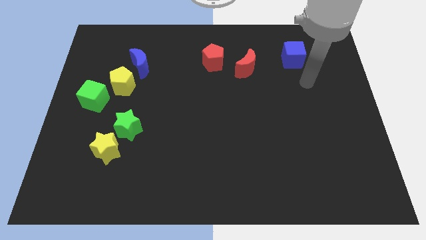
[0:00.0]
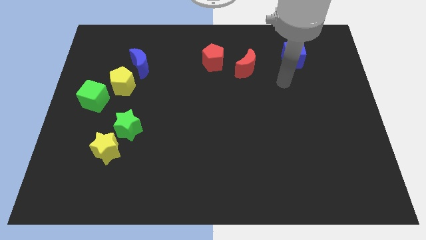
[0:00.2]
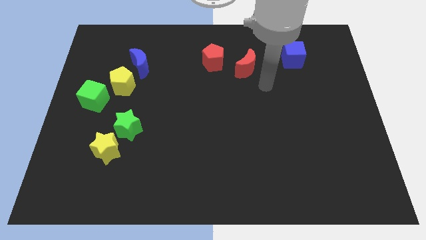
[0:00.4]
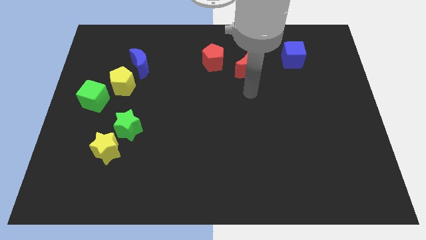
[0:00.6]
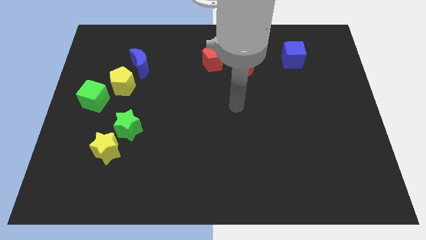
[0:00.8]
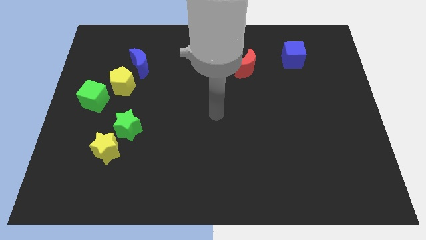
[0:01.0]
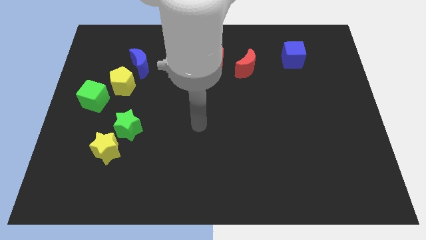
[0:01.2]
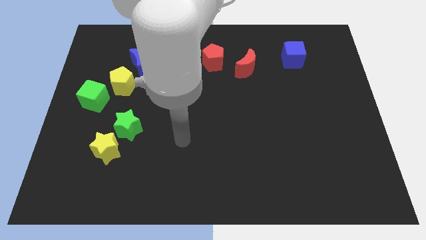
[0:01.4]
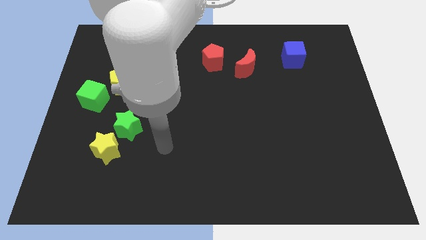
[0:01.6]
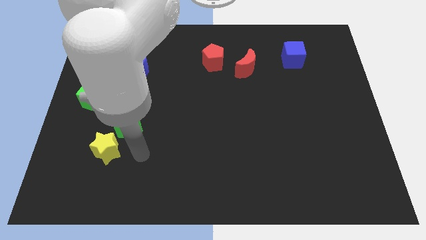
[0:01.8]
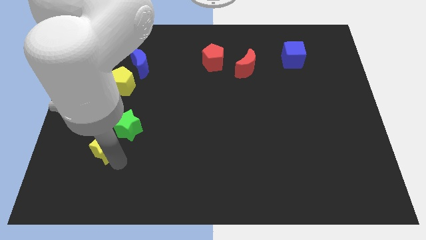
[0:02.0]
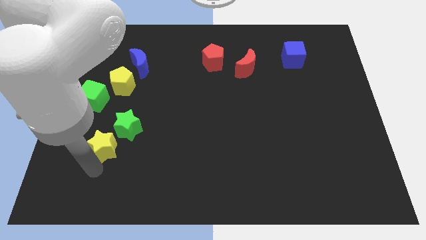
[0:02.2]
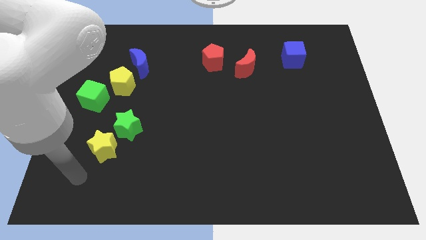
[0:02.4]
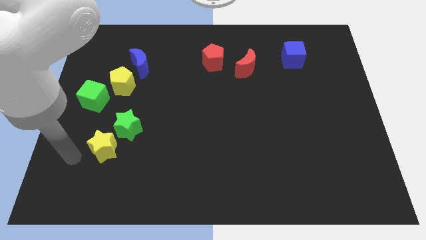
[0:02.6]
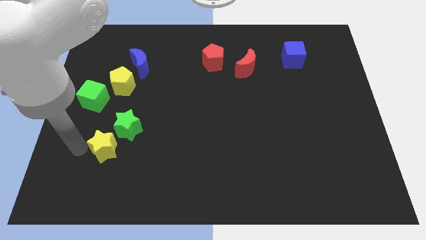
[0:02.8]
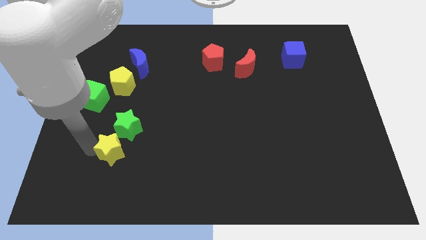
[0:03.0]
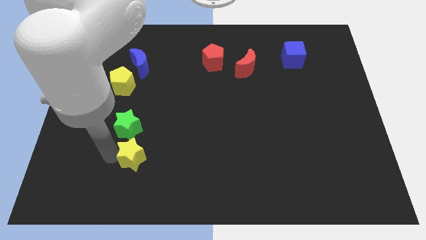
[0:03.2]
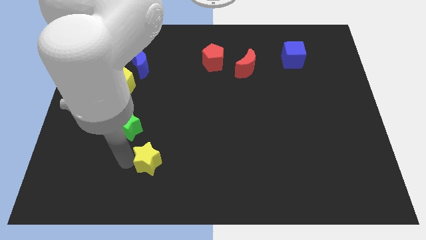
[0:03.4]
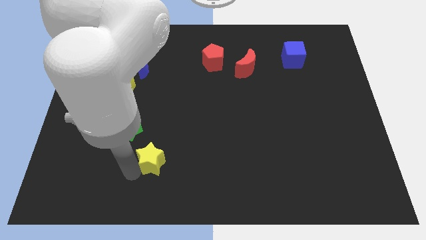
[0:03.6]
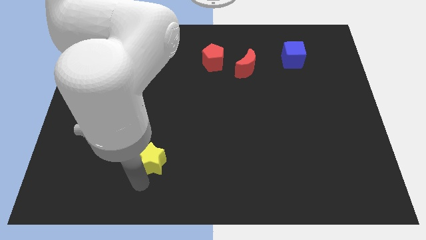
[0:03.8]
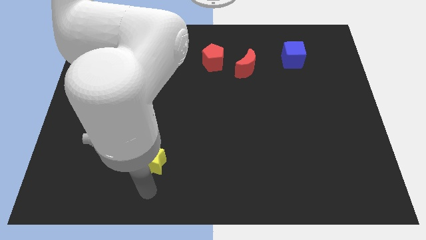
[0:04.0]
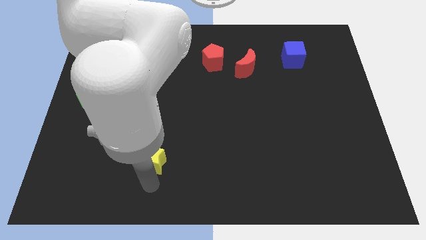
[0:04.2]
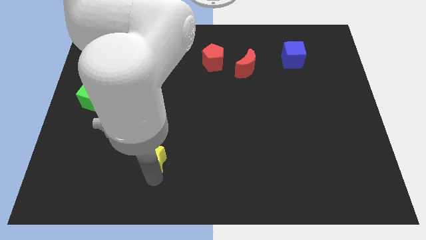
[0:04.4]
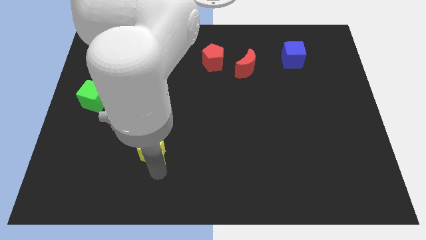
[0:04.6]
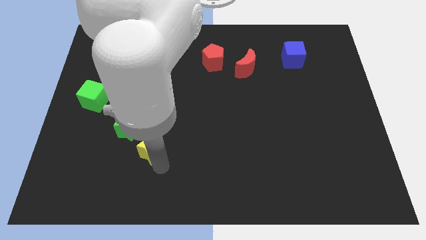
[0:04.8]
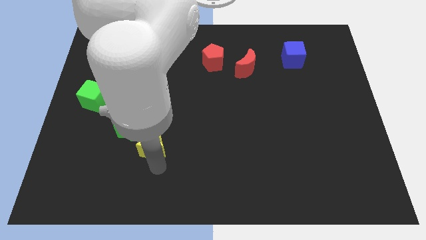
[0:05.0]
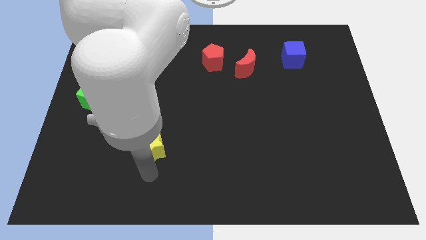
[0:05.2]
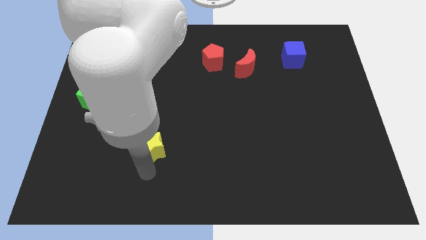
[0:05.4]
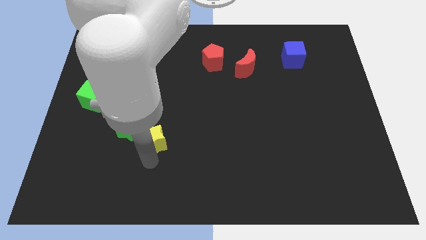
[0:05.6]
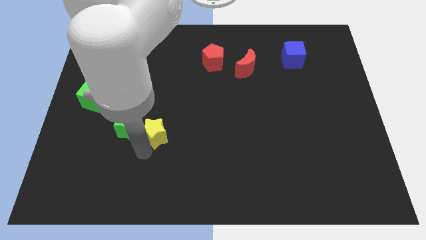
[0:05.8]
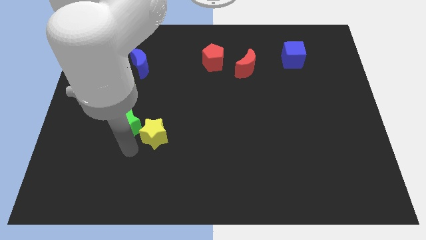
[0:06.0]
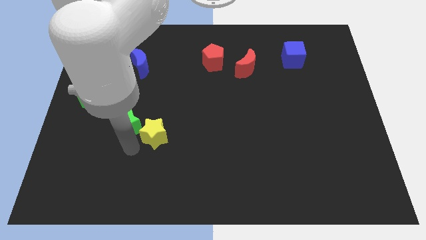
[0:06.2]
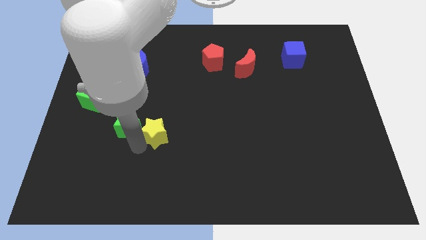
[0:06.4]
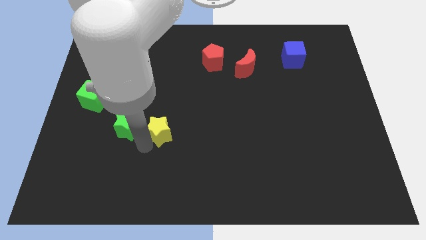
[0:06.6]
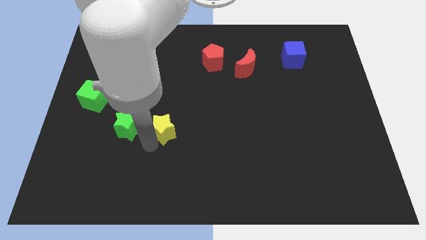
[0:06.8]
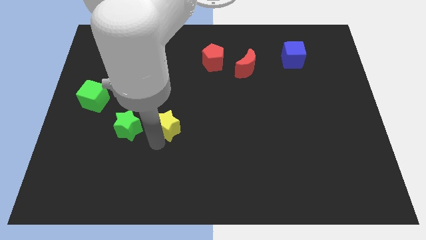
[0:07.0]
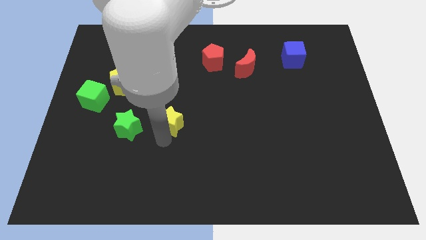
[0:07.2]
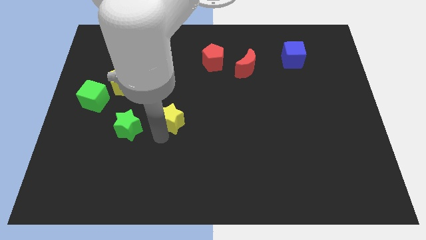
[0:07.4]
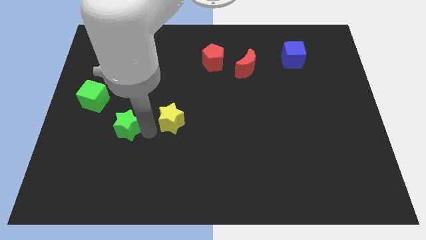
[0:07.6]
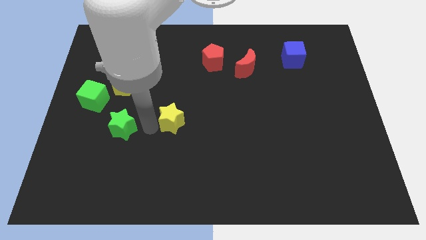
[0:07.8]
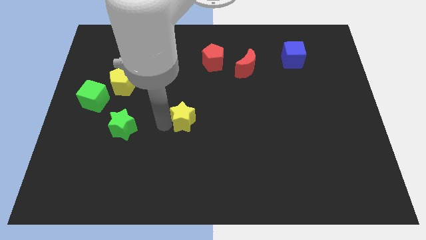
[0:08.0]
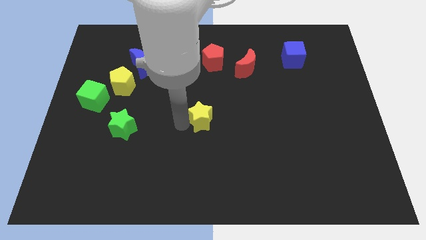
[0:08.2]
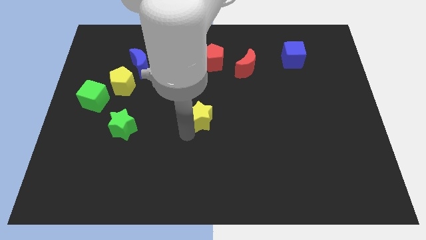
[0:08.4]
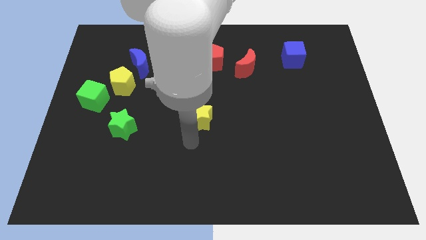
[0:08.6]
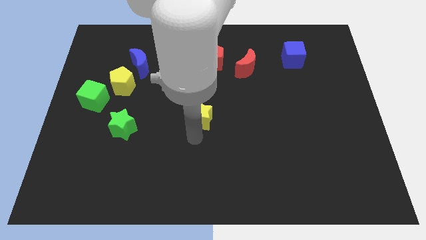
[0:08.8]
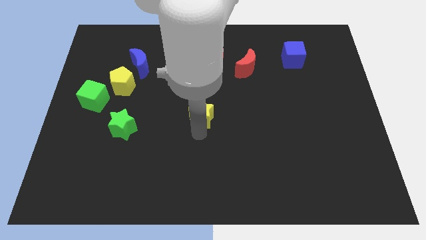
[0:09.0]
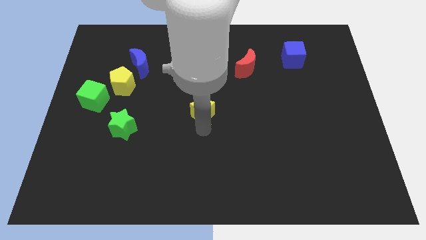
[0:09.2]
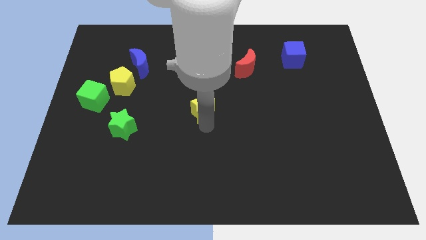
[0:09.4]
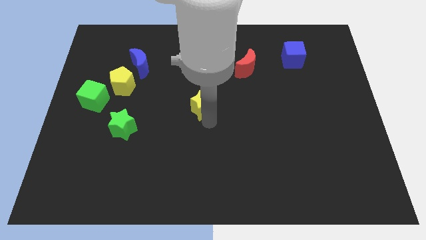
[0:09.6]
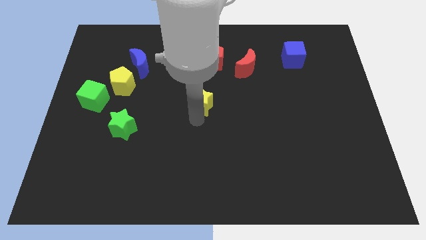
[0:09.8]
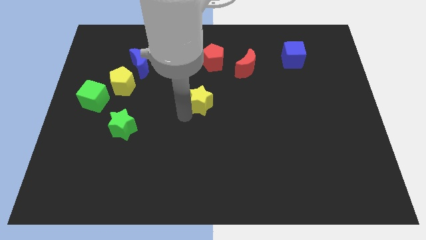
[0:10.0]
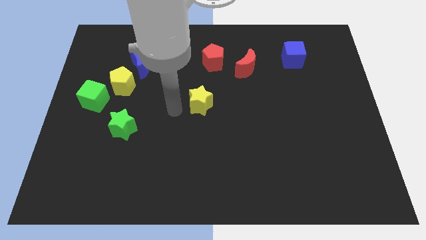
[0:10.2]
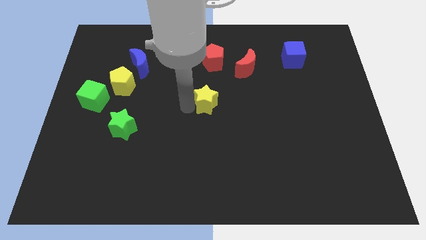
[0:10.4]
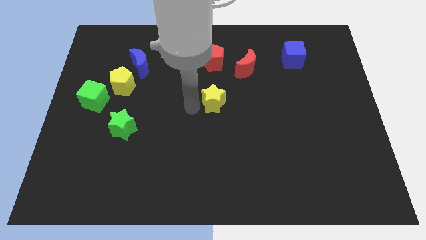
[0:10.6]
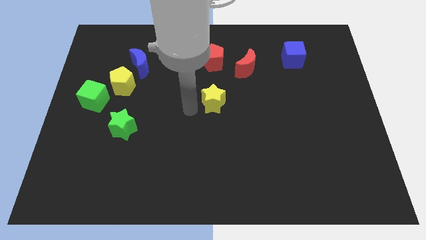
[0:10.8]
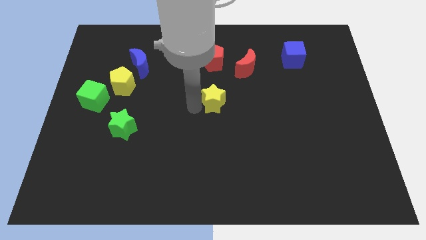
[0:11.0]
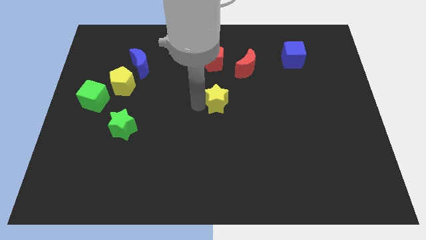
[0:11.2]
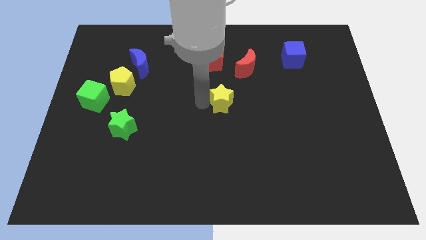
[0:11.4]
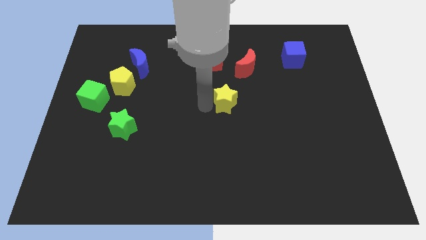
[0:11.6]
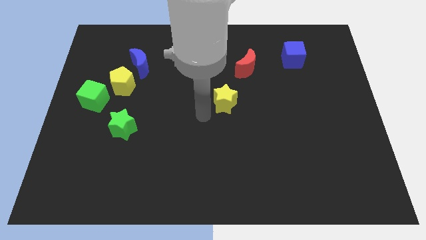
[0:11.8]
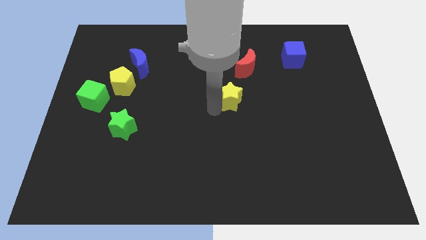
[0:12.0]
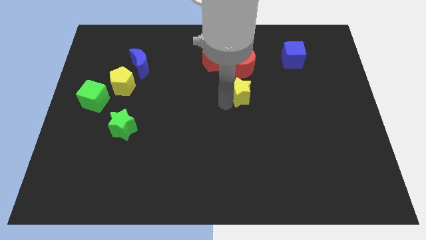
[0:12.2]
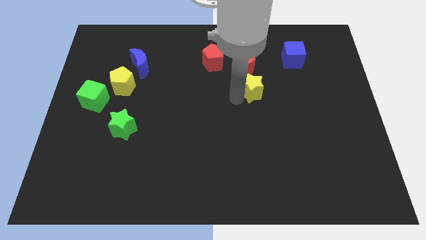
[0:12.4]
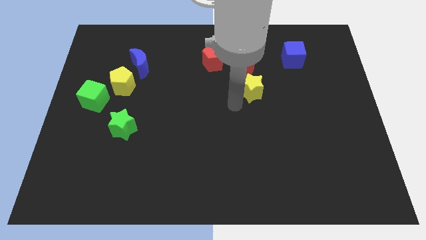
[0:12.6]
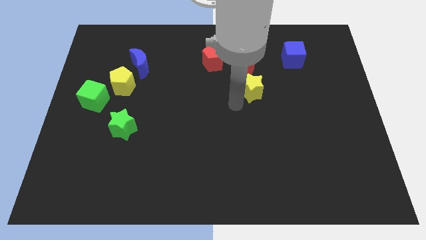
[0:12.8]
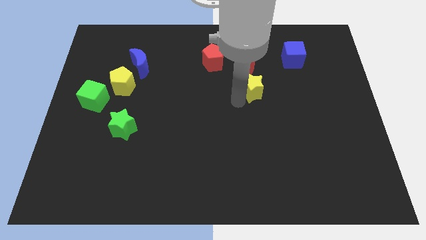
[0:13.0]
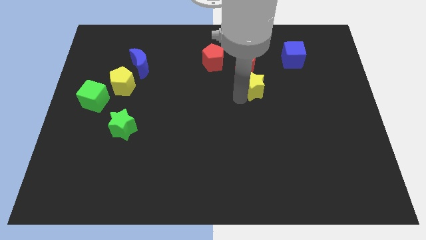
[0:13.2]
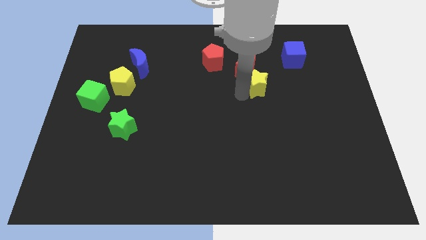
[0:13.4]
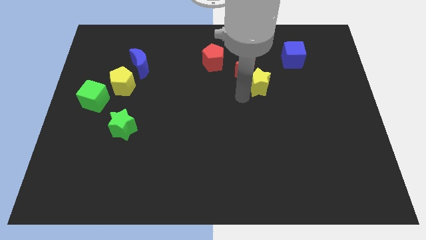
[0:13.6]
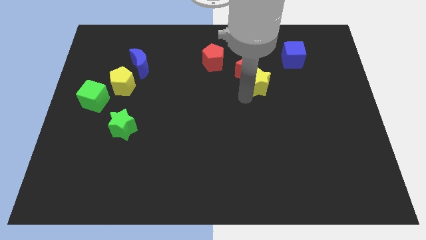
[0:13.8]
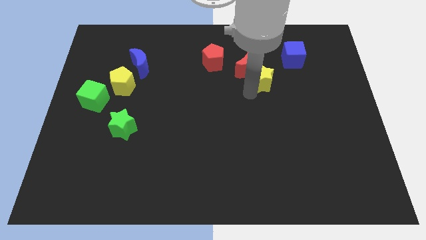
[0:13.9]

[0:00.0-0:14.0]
move the yellow star to the bottom left side of the blue cube

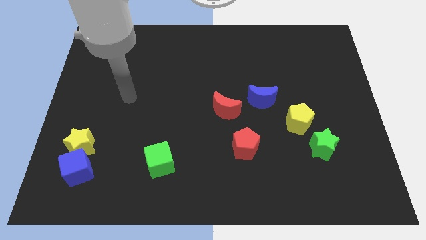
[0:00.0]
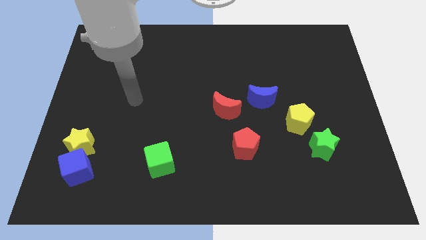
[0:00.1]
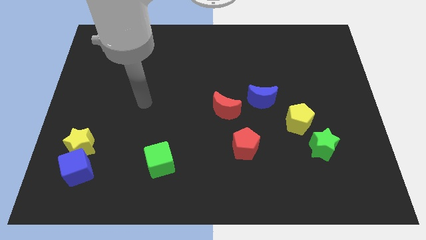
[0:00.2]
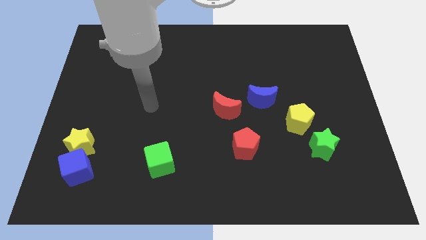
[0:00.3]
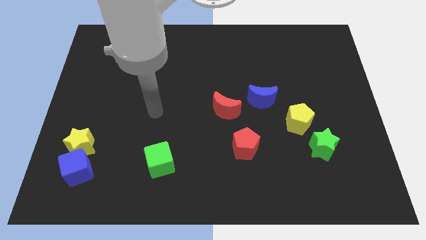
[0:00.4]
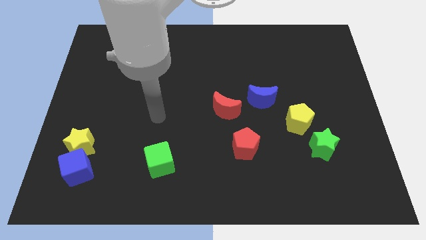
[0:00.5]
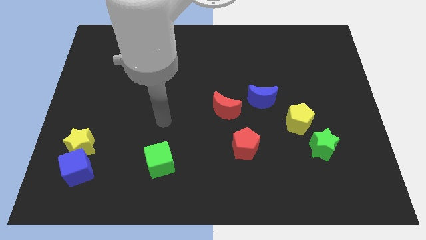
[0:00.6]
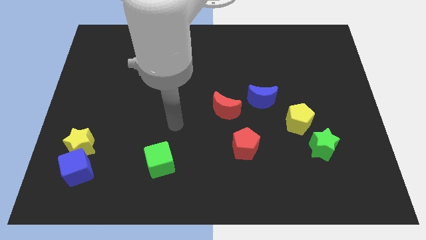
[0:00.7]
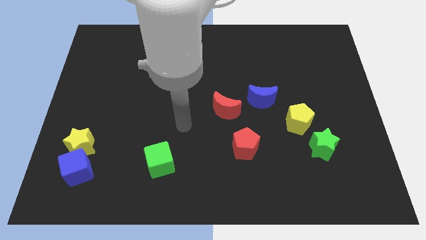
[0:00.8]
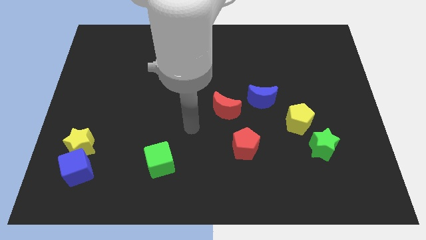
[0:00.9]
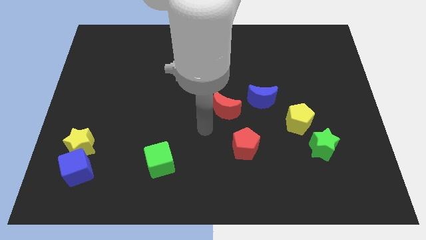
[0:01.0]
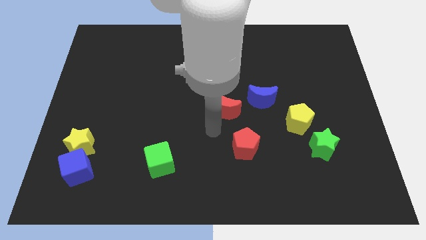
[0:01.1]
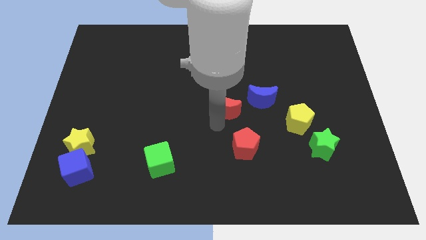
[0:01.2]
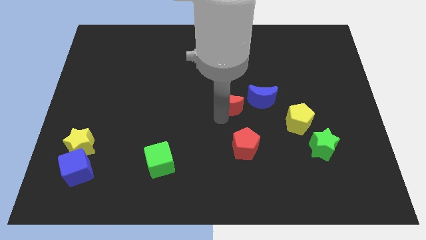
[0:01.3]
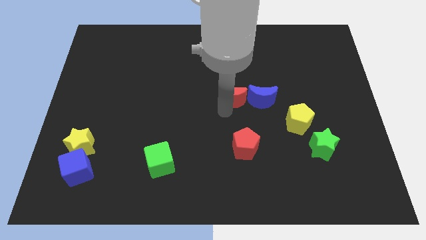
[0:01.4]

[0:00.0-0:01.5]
push the red moon diagonally up and to the left of the blue moon
